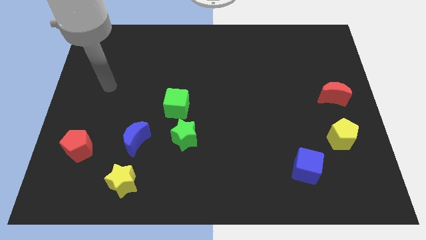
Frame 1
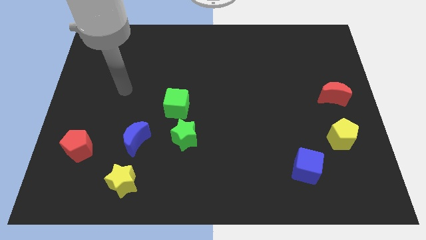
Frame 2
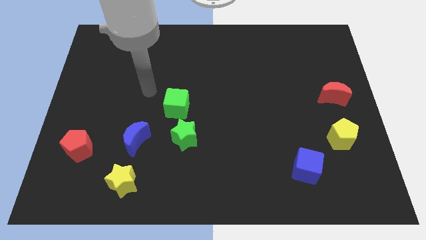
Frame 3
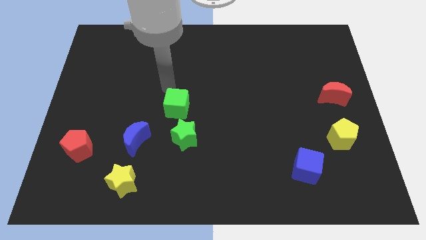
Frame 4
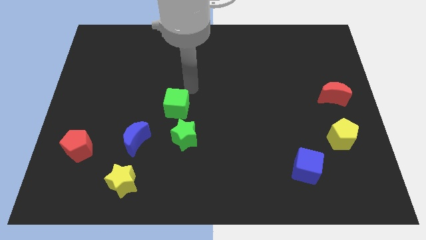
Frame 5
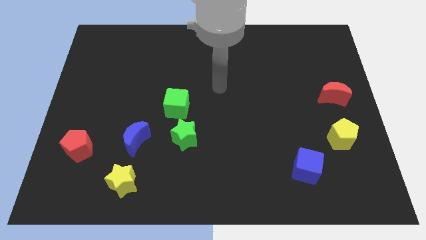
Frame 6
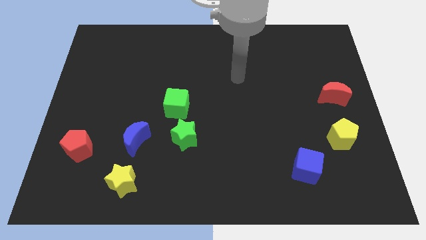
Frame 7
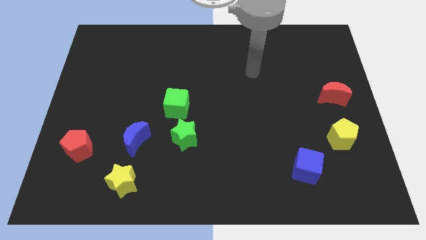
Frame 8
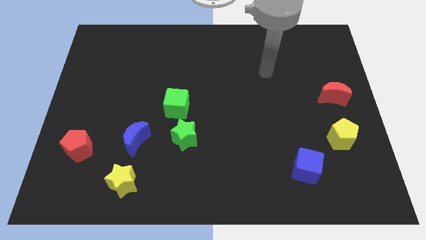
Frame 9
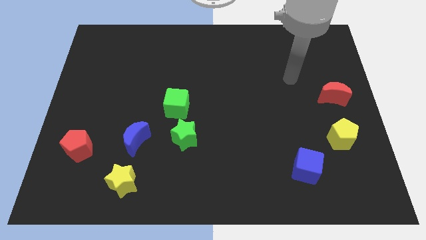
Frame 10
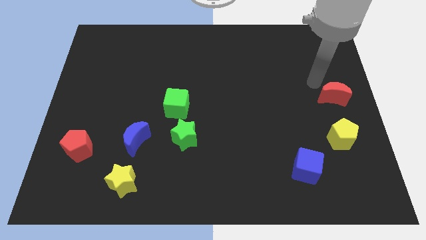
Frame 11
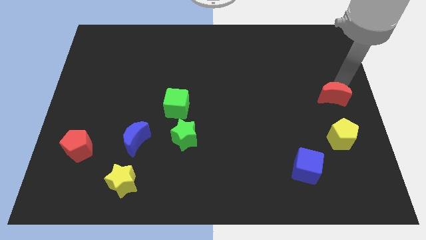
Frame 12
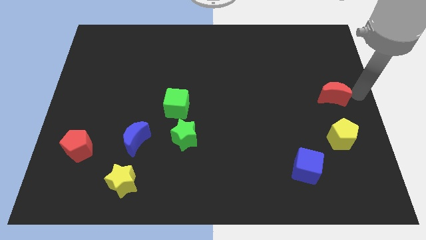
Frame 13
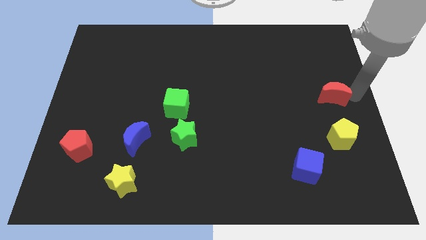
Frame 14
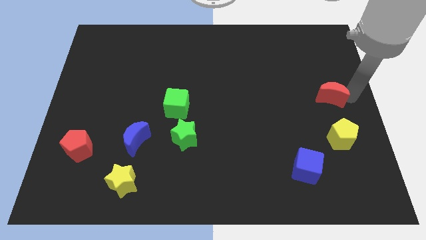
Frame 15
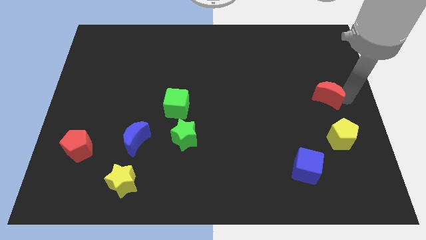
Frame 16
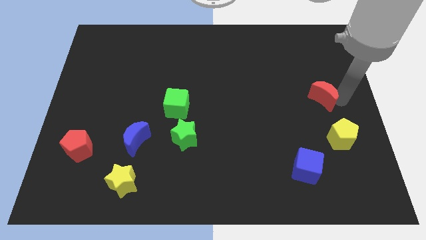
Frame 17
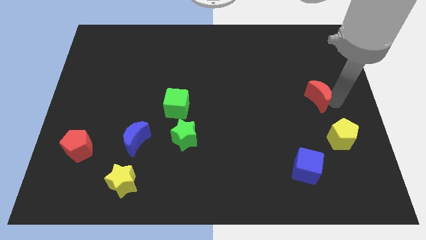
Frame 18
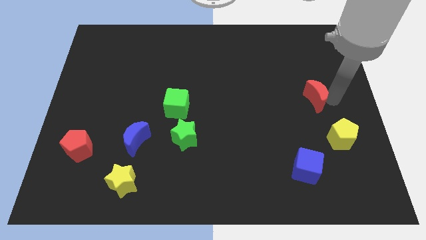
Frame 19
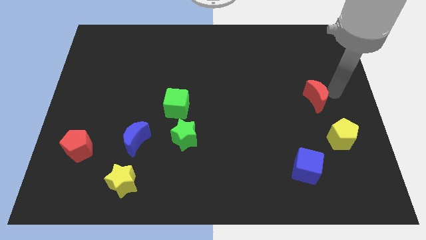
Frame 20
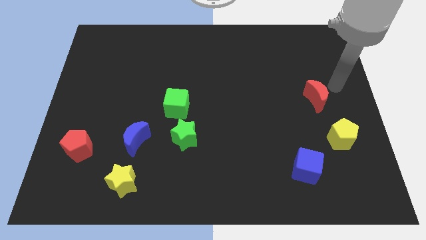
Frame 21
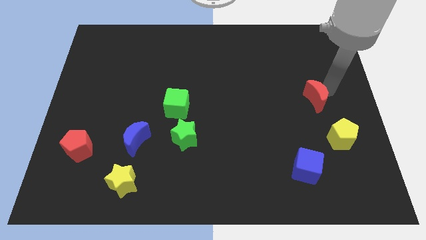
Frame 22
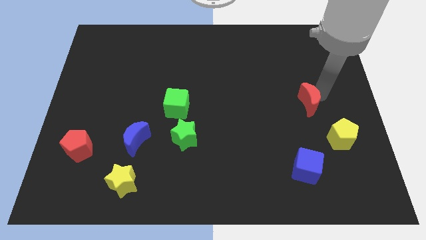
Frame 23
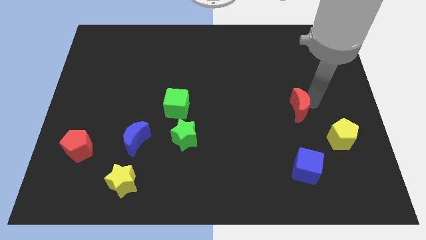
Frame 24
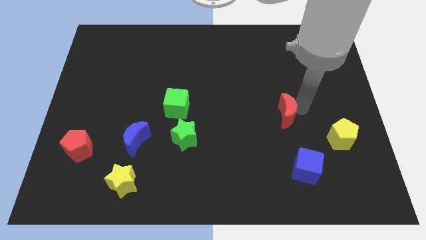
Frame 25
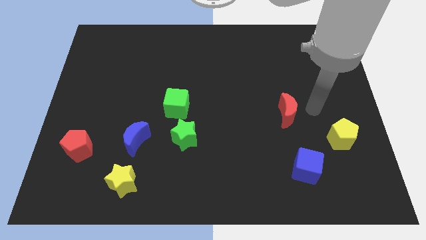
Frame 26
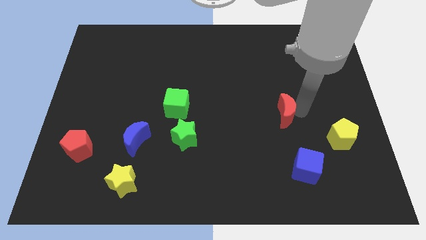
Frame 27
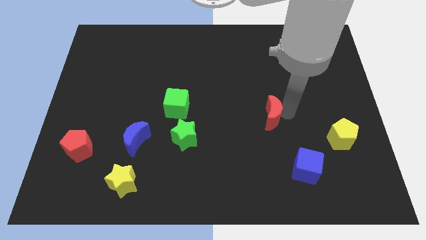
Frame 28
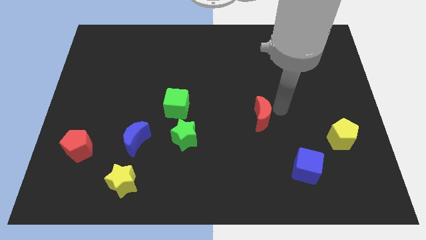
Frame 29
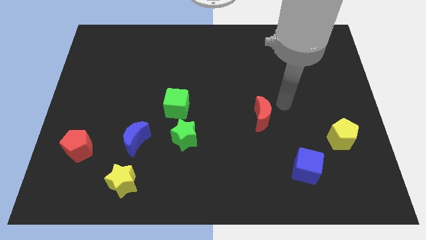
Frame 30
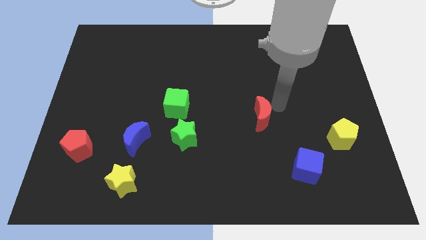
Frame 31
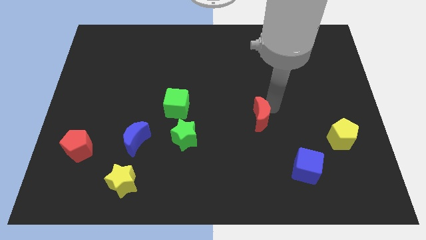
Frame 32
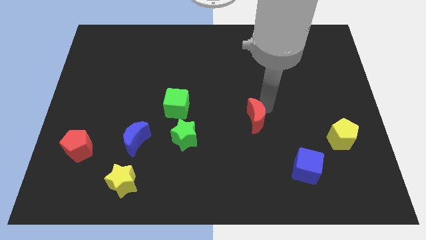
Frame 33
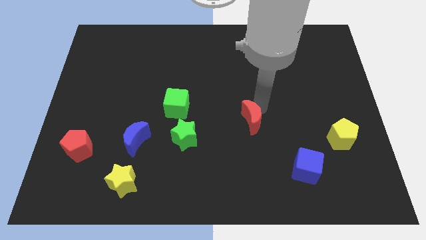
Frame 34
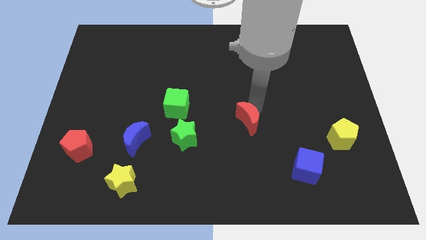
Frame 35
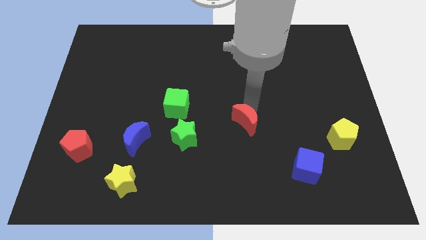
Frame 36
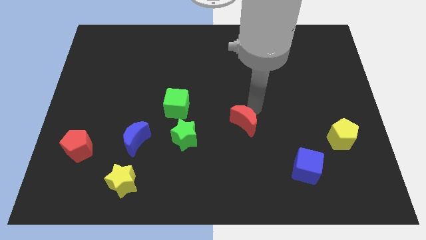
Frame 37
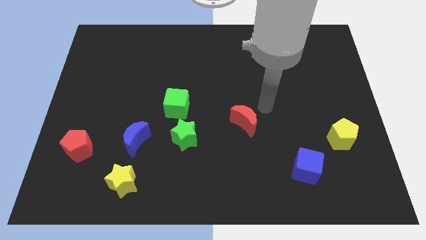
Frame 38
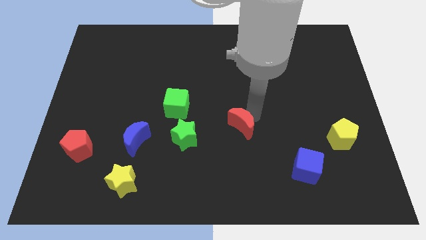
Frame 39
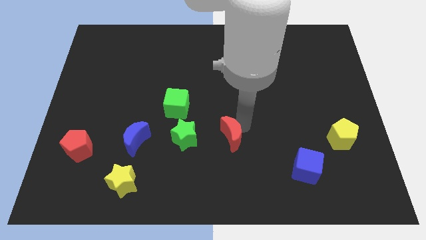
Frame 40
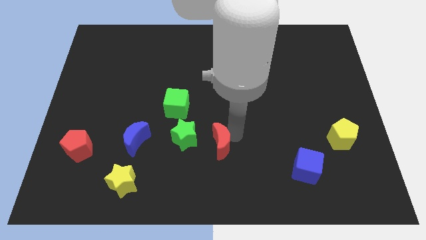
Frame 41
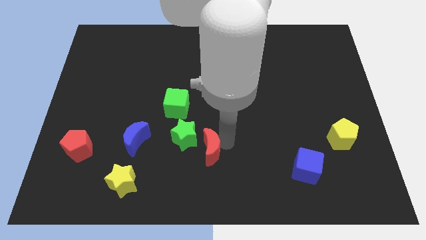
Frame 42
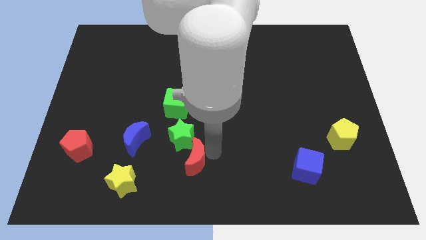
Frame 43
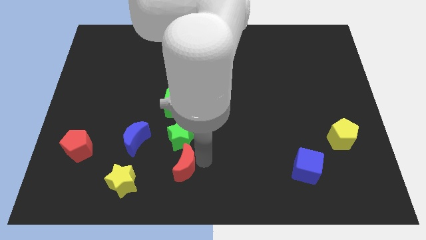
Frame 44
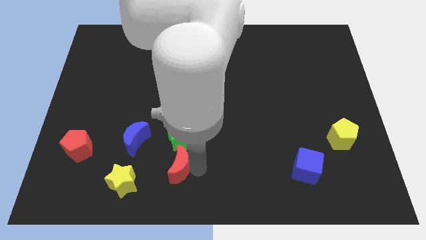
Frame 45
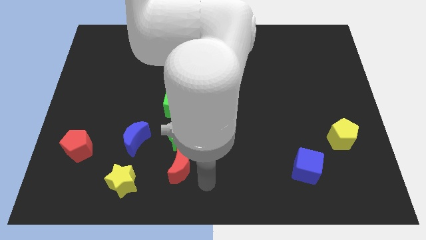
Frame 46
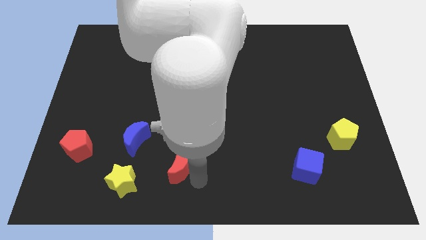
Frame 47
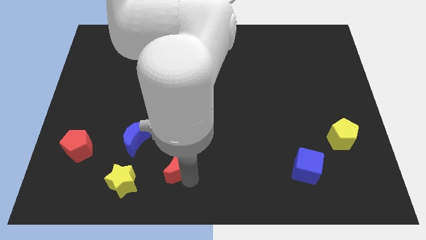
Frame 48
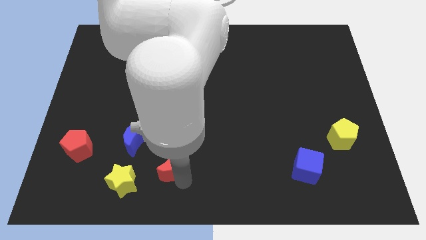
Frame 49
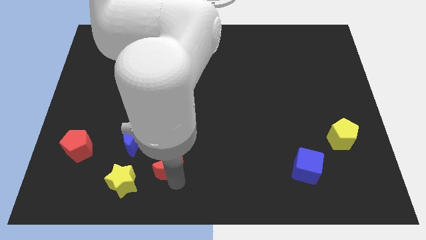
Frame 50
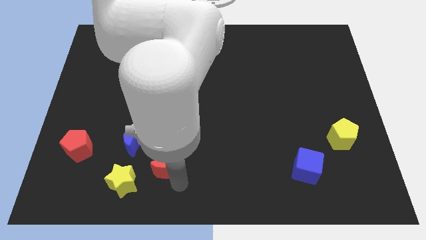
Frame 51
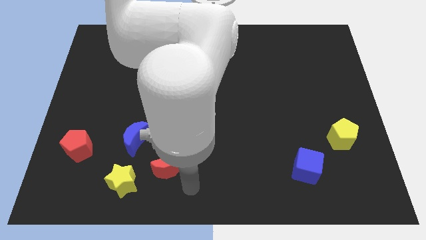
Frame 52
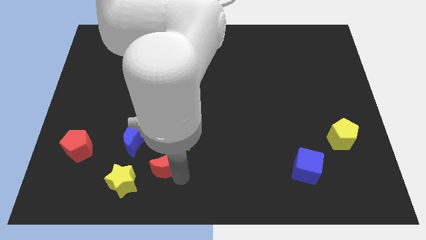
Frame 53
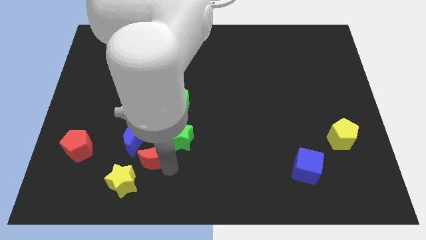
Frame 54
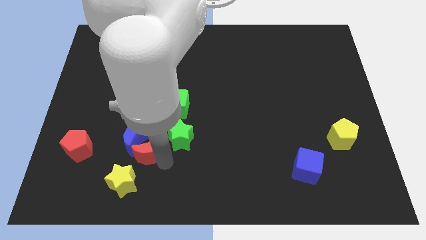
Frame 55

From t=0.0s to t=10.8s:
move the red moon to the right of the red pentagon

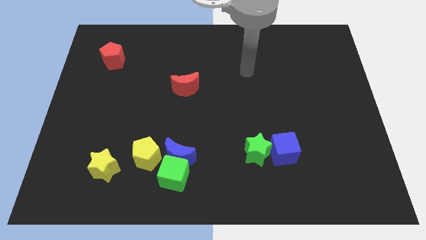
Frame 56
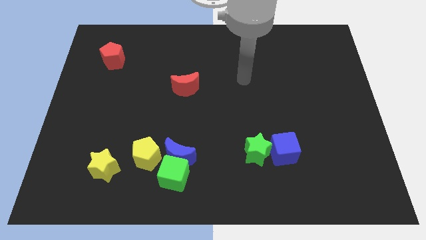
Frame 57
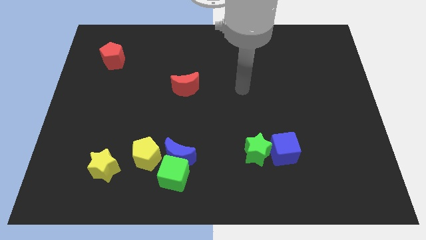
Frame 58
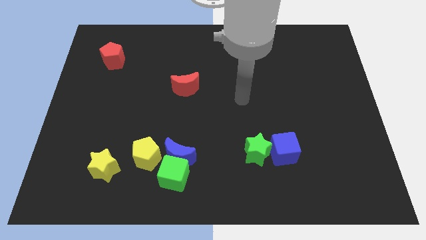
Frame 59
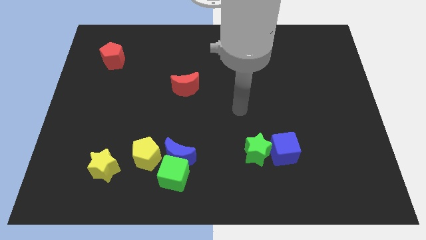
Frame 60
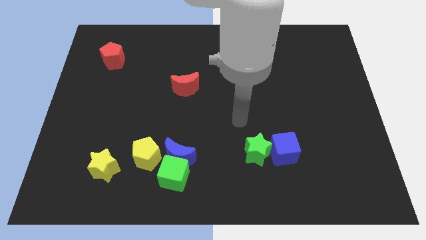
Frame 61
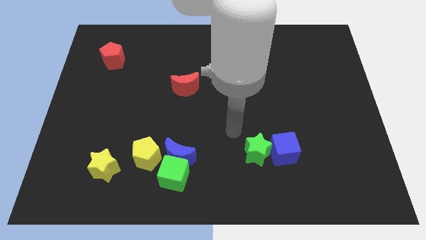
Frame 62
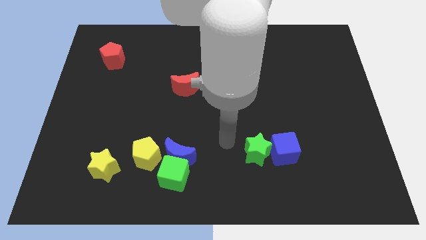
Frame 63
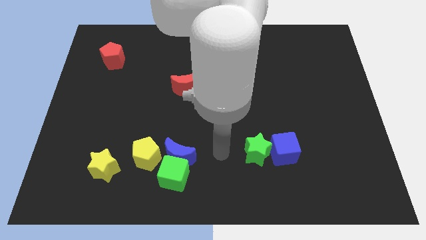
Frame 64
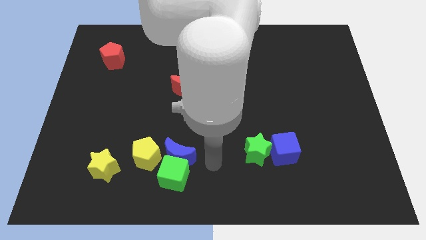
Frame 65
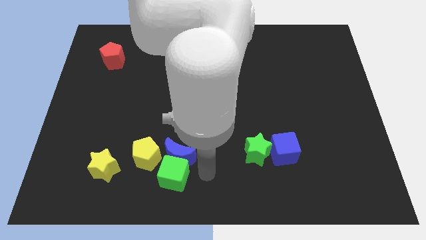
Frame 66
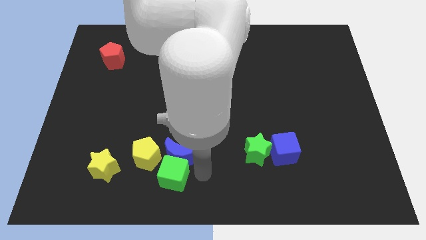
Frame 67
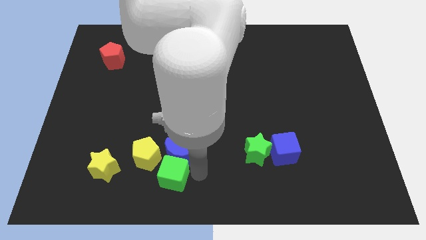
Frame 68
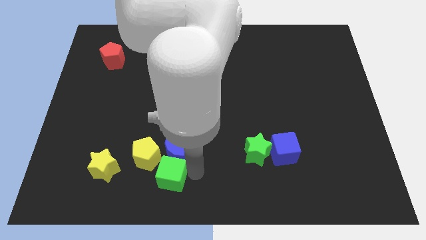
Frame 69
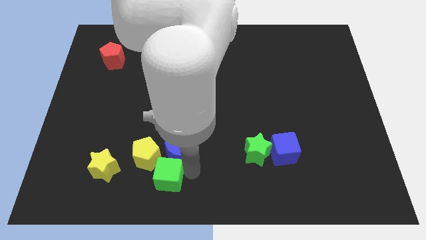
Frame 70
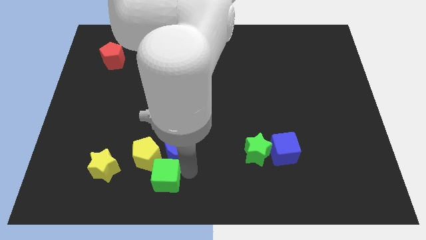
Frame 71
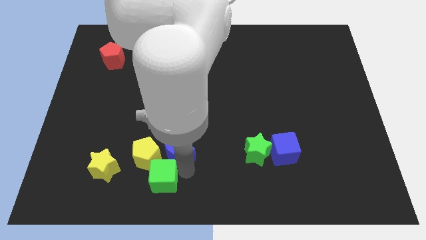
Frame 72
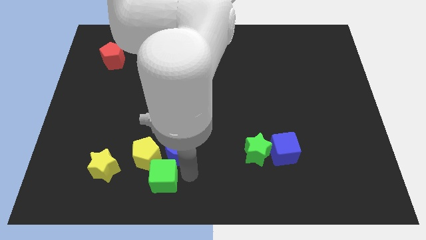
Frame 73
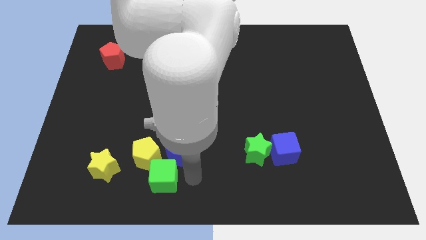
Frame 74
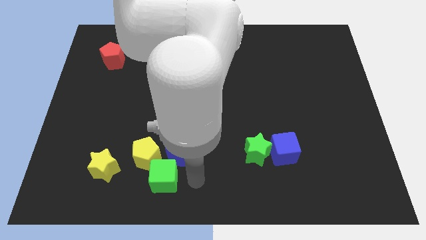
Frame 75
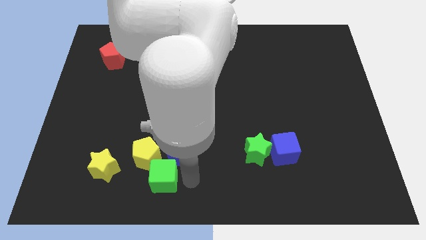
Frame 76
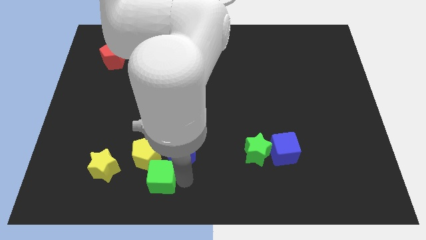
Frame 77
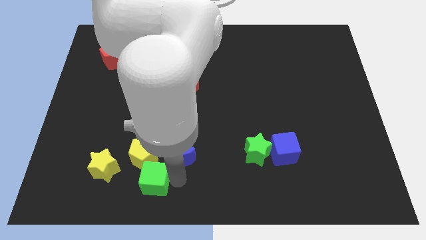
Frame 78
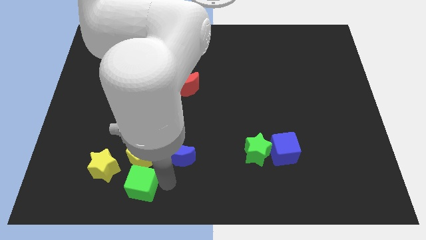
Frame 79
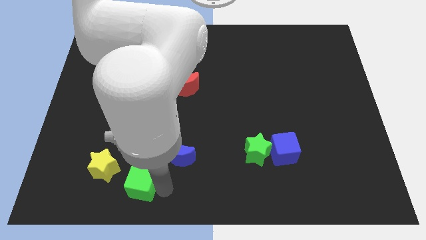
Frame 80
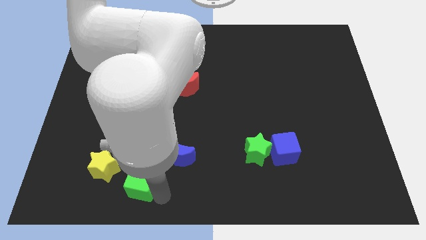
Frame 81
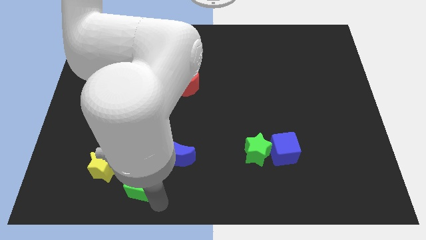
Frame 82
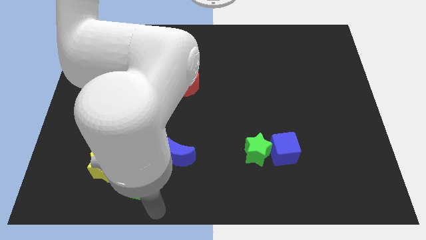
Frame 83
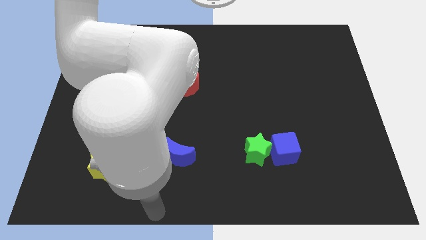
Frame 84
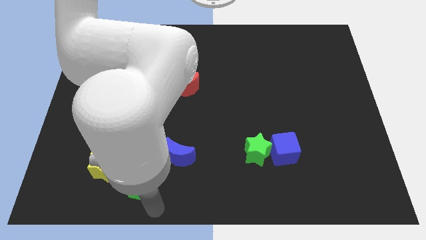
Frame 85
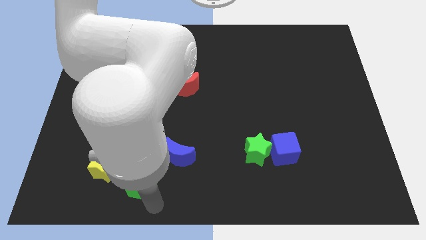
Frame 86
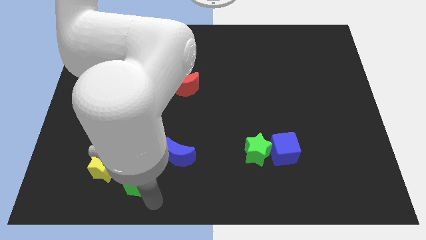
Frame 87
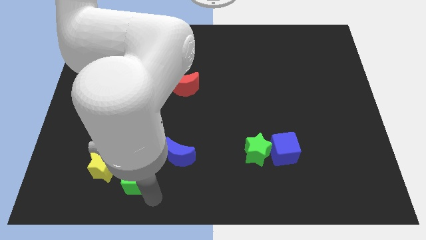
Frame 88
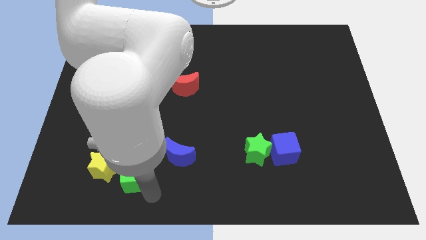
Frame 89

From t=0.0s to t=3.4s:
slide the green cube left of the blue moon
